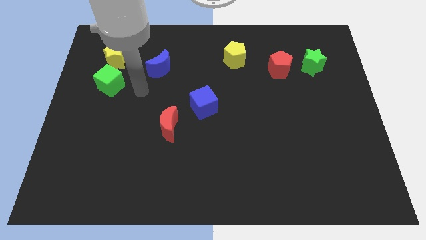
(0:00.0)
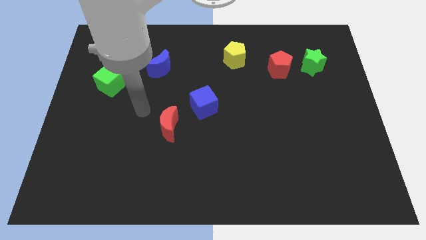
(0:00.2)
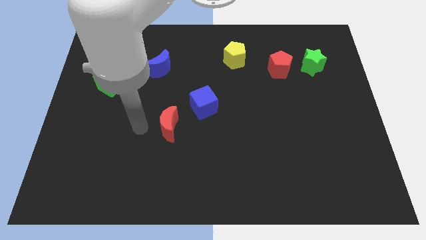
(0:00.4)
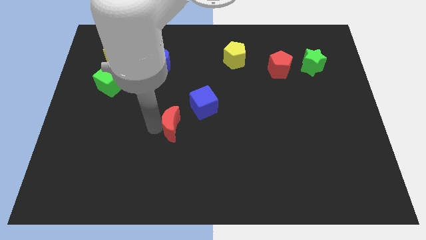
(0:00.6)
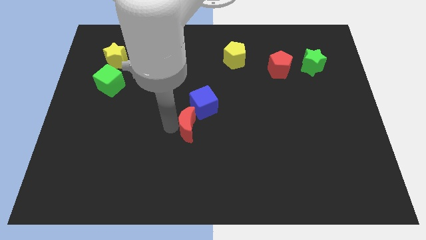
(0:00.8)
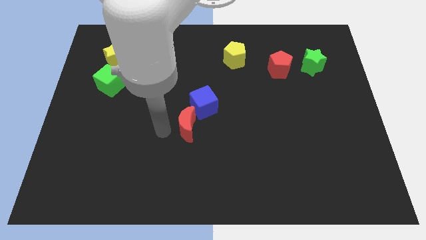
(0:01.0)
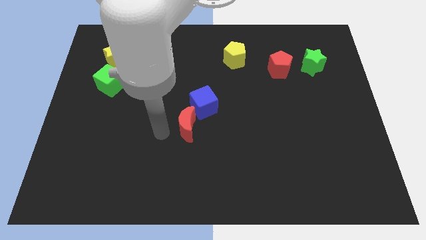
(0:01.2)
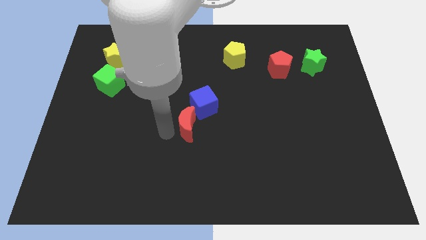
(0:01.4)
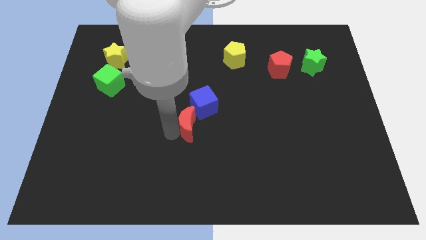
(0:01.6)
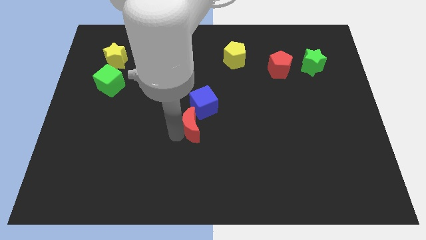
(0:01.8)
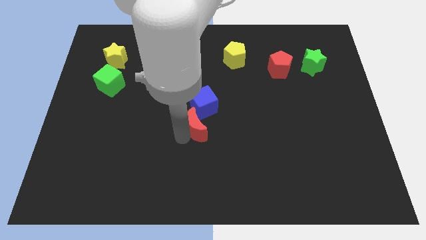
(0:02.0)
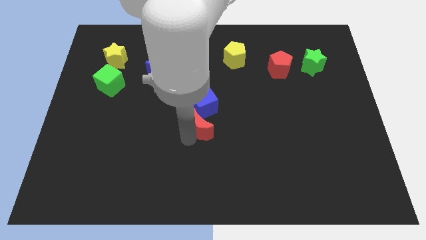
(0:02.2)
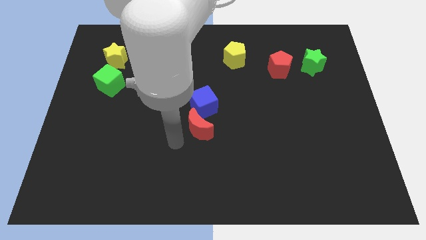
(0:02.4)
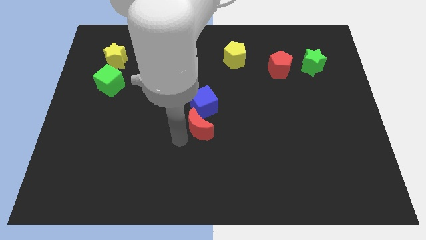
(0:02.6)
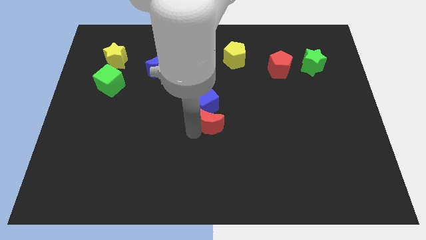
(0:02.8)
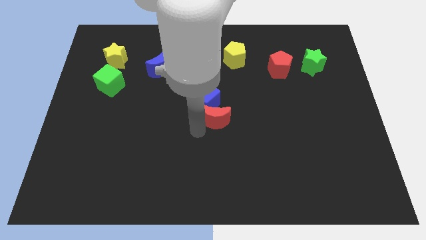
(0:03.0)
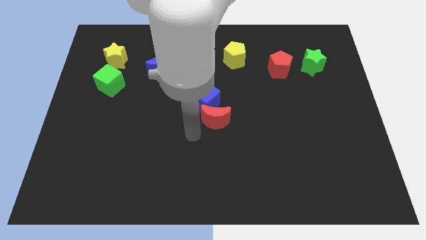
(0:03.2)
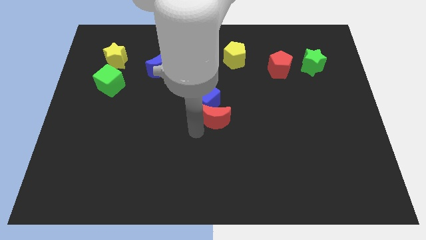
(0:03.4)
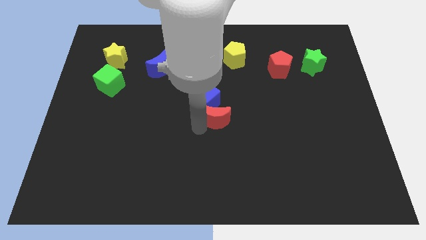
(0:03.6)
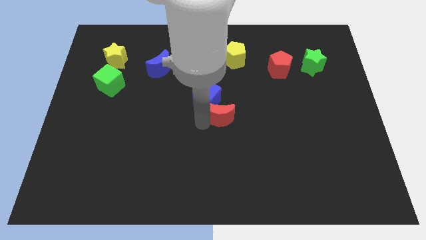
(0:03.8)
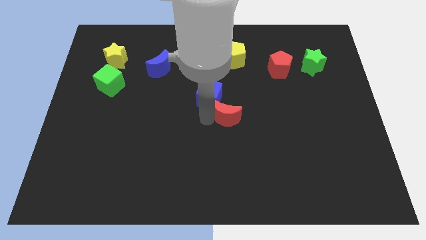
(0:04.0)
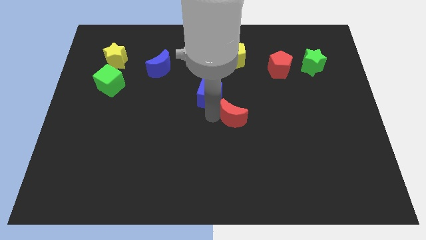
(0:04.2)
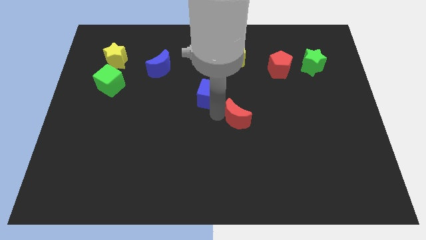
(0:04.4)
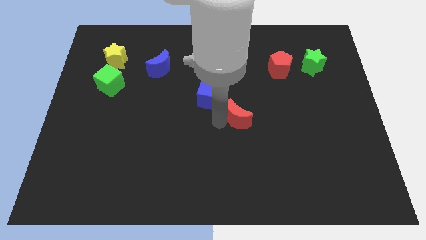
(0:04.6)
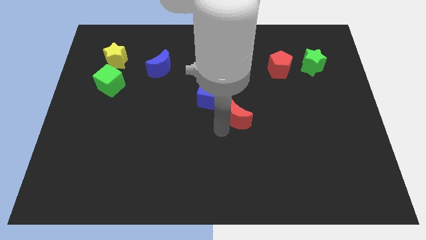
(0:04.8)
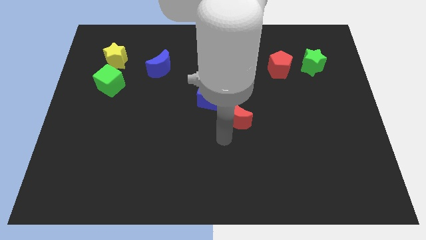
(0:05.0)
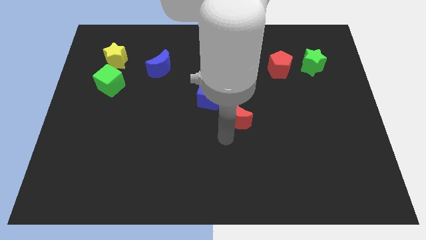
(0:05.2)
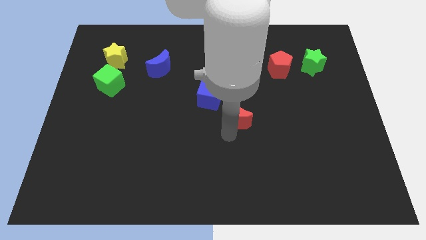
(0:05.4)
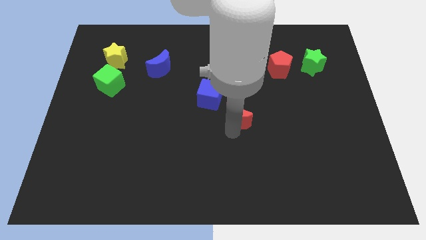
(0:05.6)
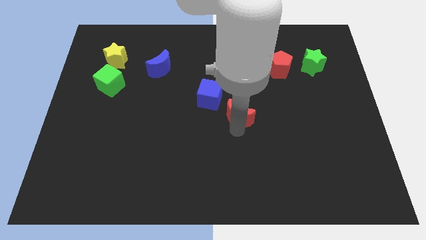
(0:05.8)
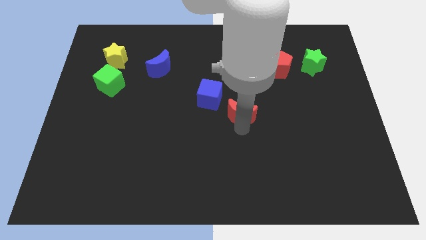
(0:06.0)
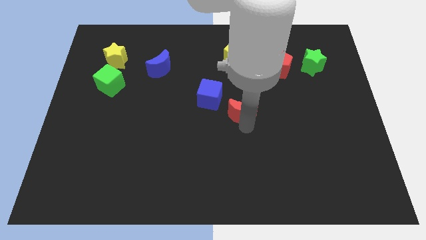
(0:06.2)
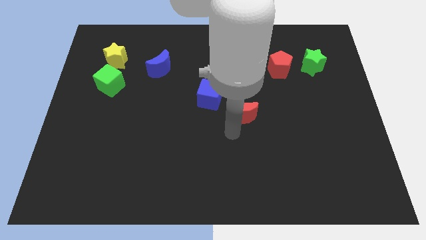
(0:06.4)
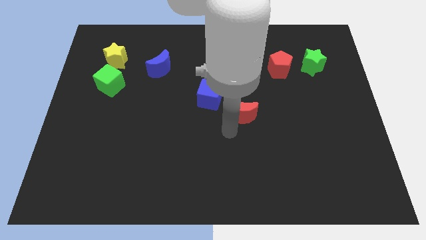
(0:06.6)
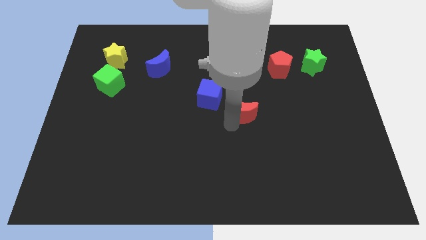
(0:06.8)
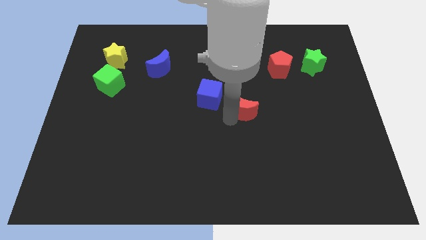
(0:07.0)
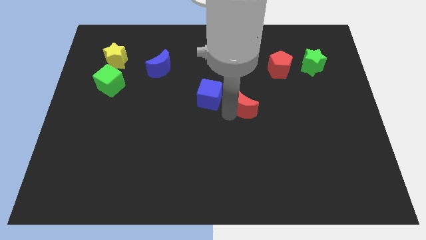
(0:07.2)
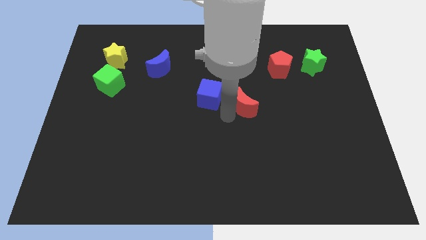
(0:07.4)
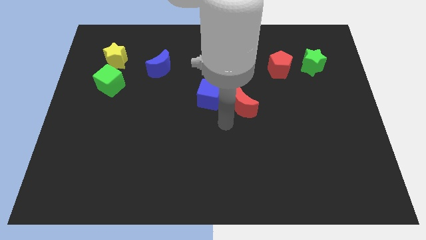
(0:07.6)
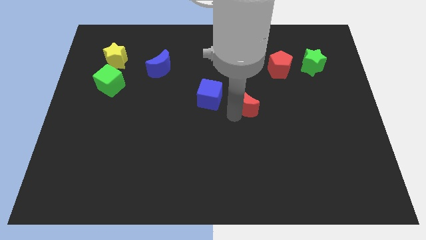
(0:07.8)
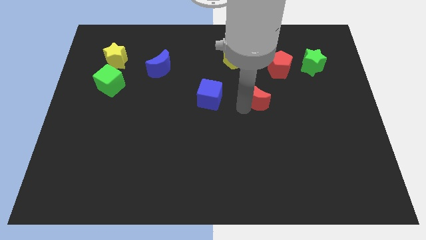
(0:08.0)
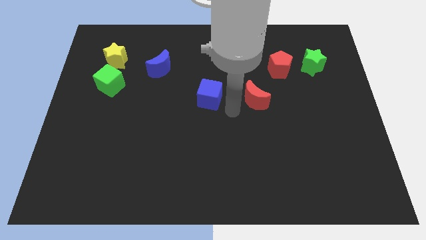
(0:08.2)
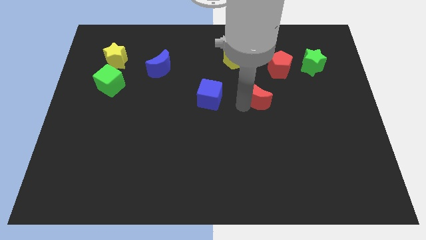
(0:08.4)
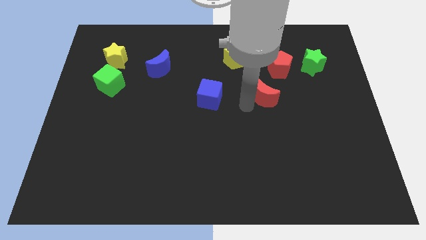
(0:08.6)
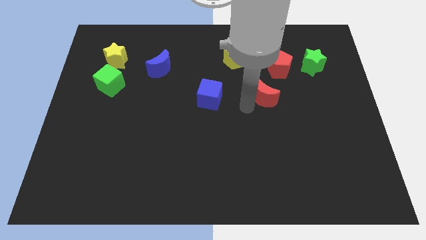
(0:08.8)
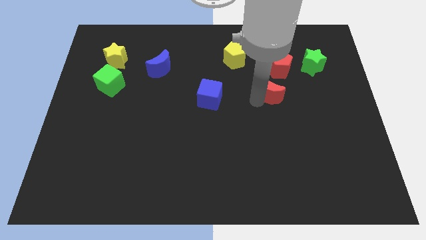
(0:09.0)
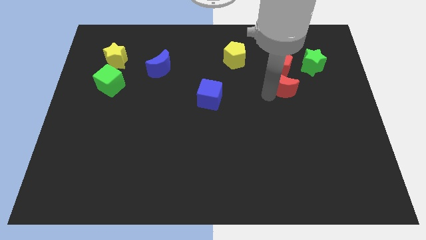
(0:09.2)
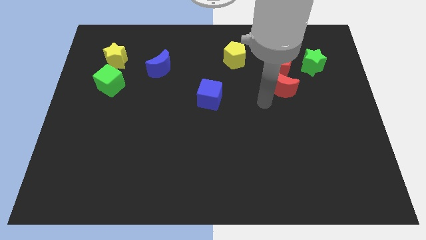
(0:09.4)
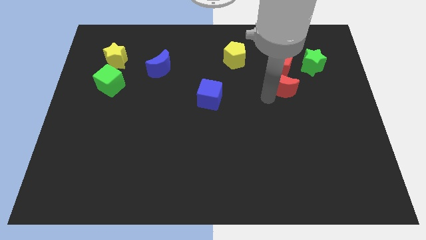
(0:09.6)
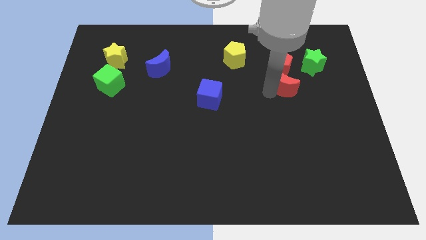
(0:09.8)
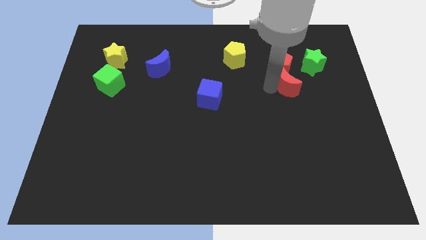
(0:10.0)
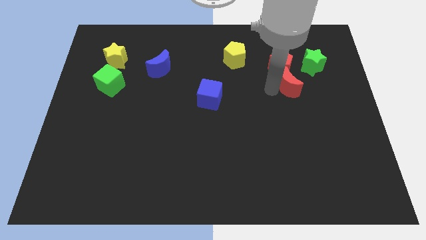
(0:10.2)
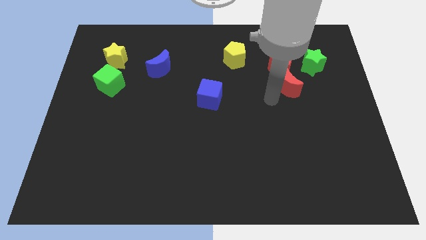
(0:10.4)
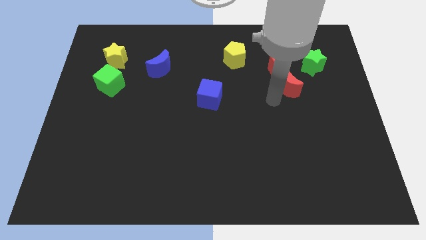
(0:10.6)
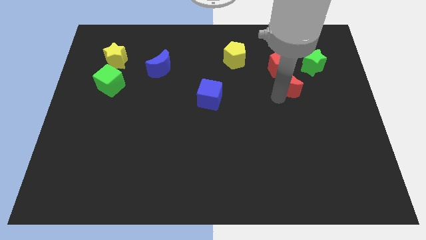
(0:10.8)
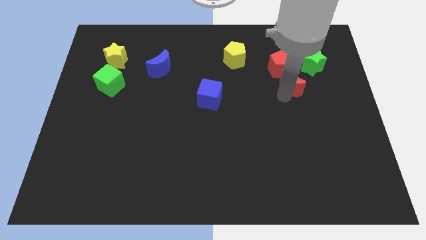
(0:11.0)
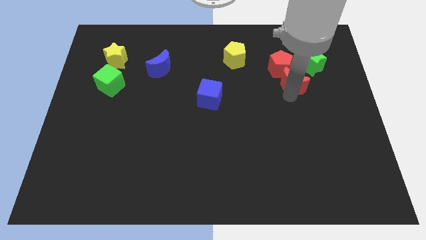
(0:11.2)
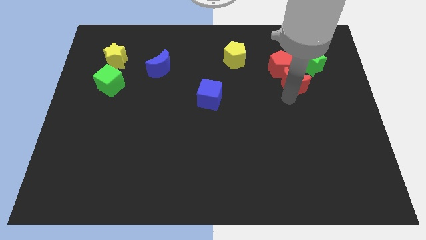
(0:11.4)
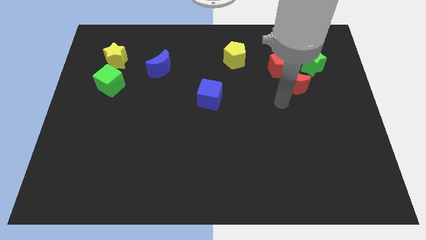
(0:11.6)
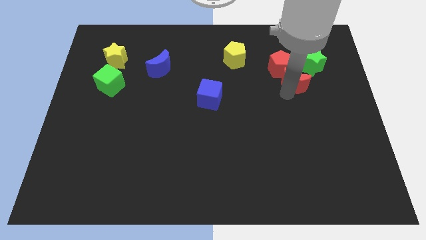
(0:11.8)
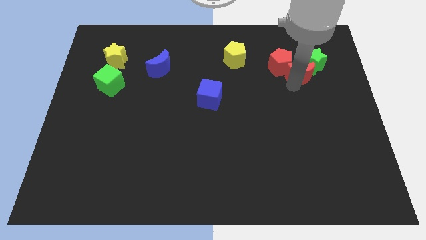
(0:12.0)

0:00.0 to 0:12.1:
move the red moon to the green star

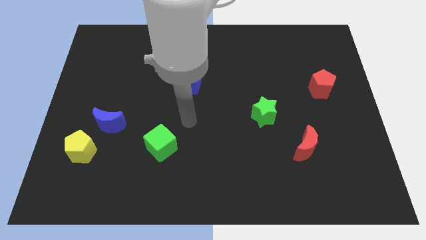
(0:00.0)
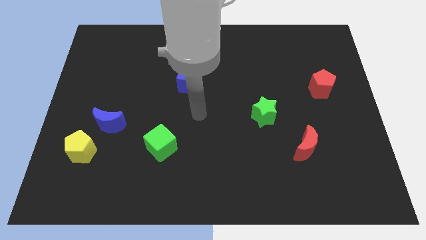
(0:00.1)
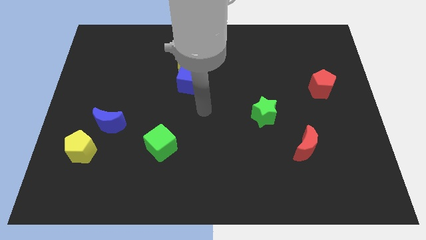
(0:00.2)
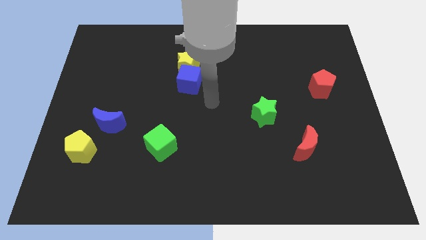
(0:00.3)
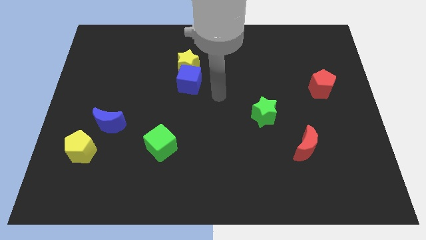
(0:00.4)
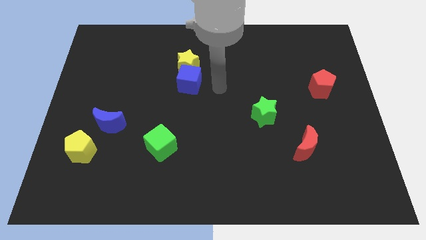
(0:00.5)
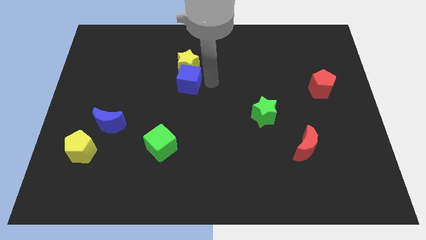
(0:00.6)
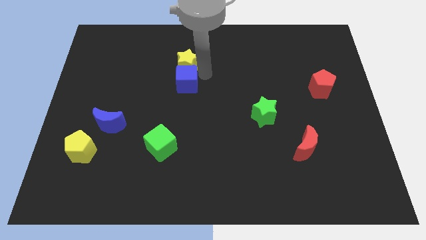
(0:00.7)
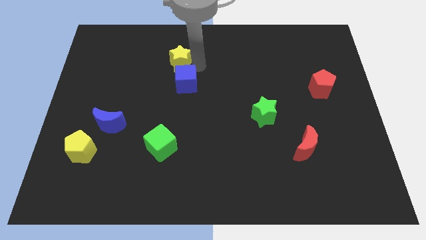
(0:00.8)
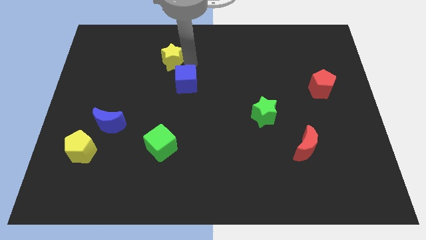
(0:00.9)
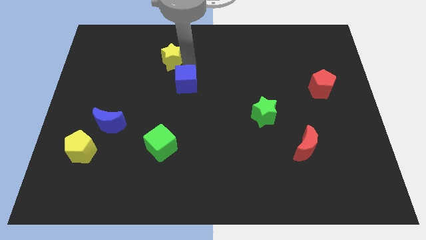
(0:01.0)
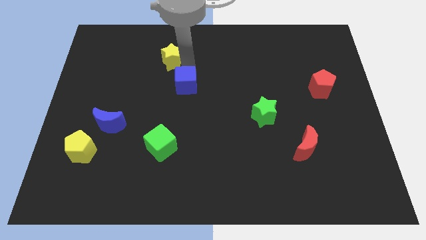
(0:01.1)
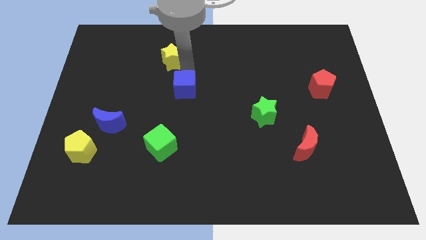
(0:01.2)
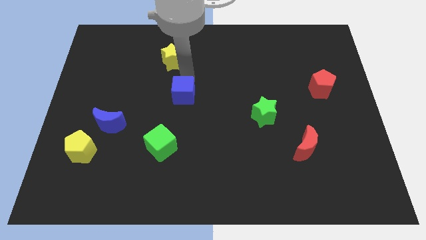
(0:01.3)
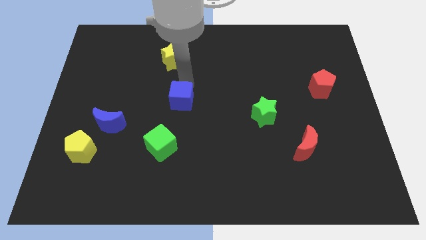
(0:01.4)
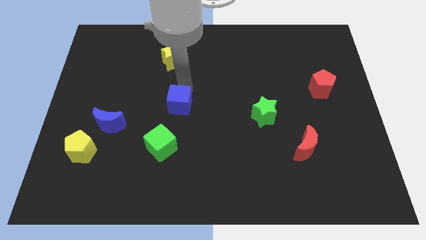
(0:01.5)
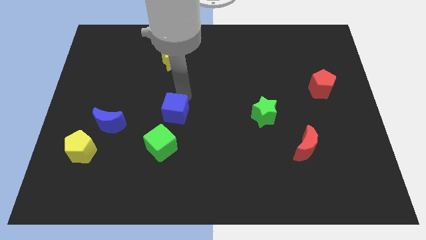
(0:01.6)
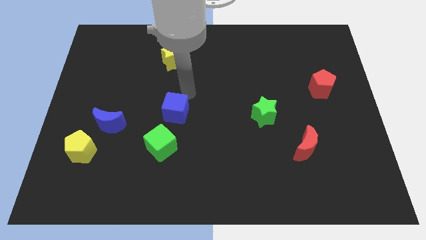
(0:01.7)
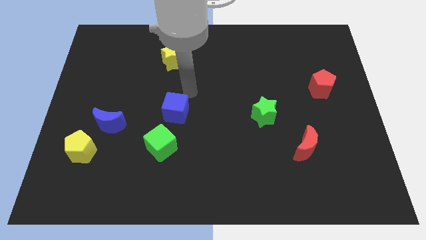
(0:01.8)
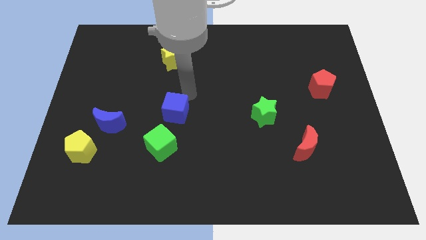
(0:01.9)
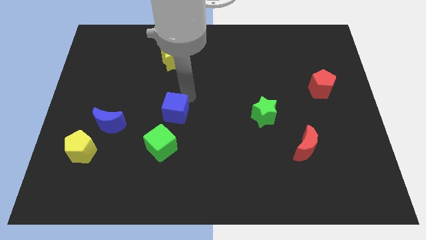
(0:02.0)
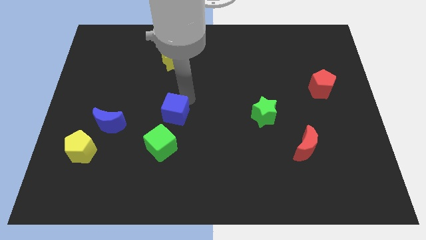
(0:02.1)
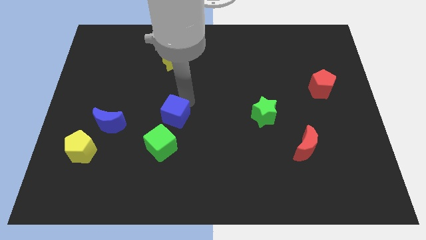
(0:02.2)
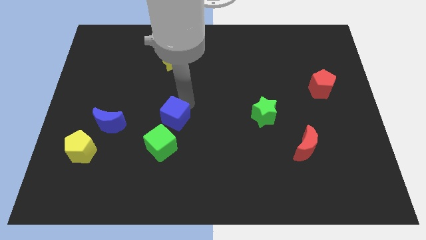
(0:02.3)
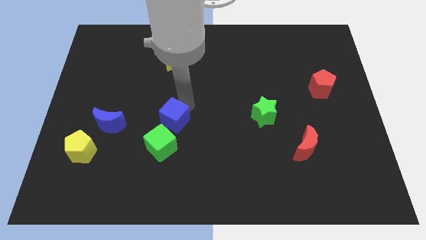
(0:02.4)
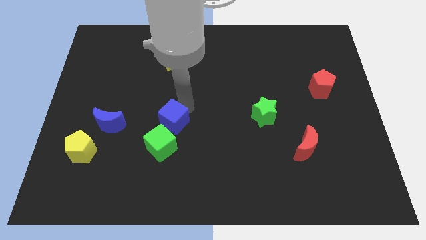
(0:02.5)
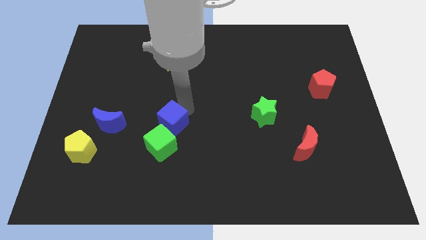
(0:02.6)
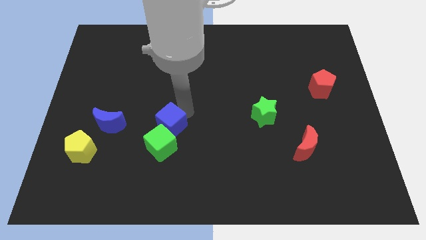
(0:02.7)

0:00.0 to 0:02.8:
push the blue cube towards the green cube
